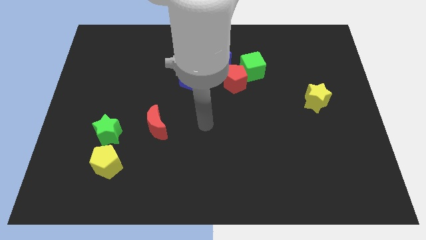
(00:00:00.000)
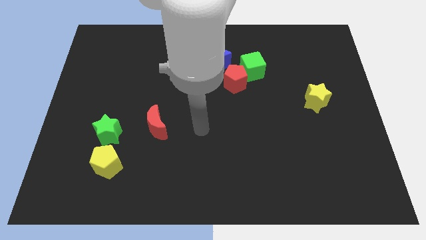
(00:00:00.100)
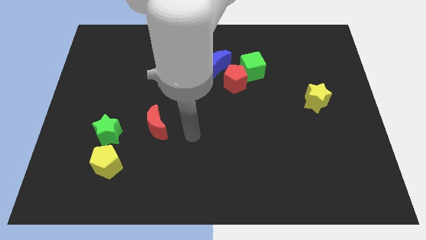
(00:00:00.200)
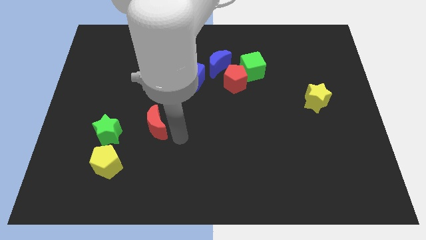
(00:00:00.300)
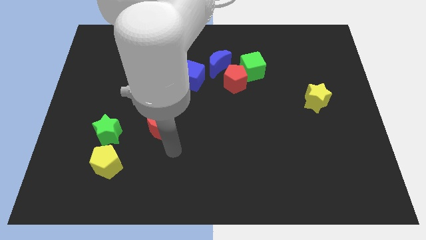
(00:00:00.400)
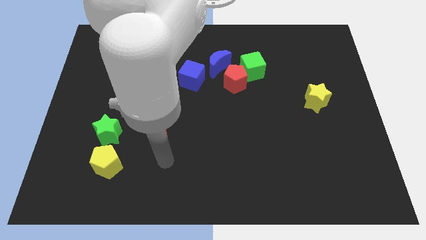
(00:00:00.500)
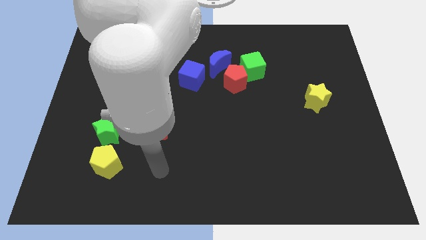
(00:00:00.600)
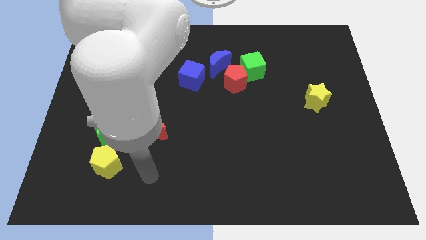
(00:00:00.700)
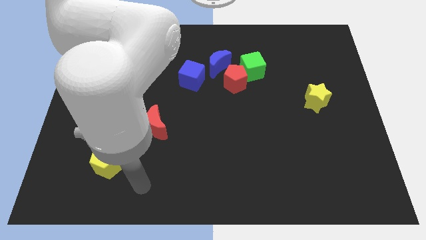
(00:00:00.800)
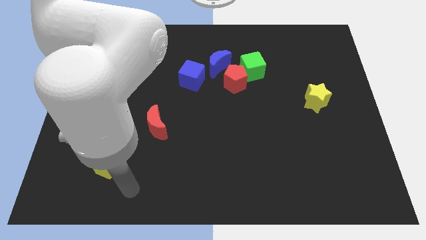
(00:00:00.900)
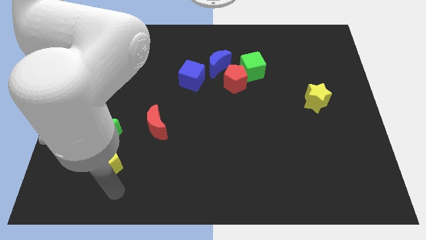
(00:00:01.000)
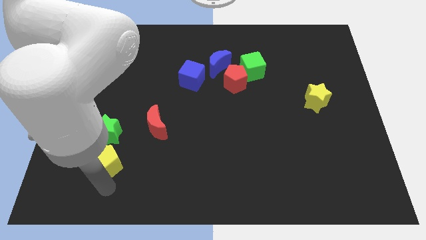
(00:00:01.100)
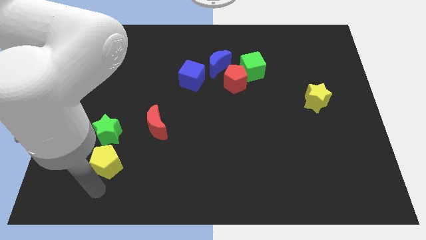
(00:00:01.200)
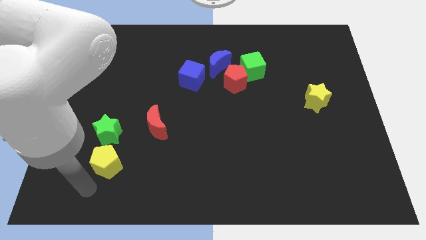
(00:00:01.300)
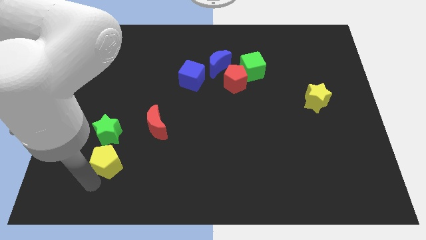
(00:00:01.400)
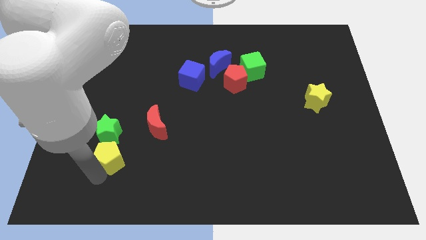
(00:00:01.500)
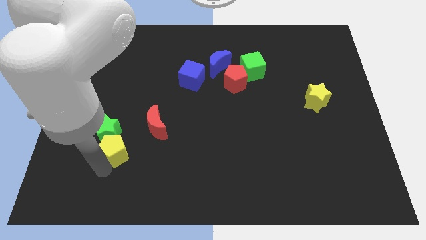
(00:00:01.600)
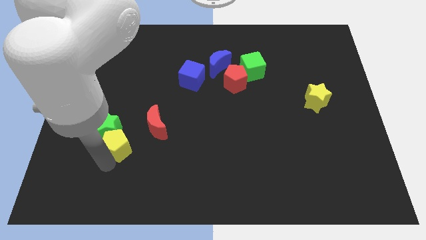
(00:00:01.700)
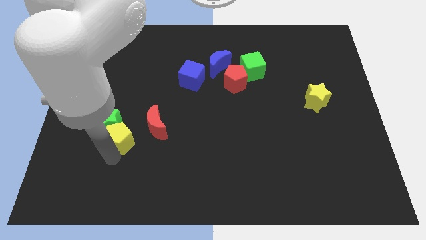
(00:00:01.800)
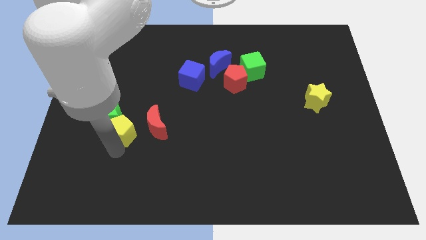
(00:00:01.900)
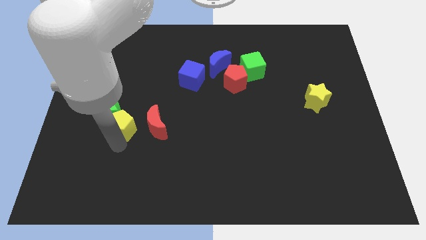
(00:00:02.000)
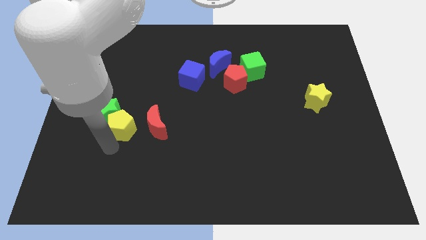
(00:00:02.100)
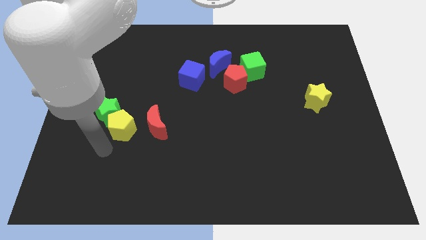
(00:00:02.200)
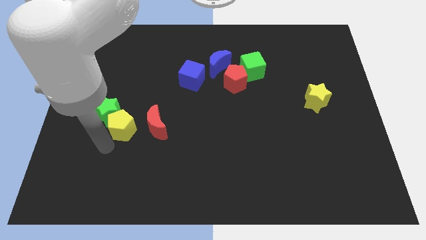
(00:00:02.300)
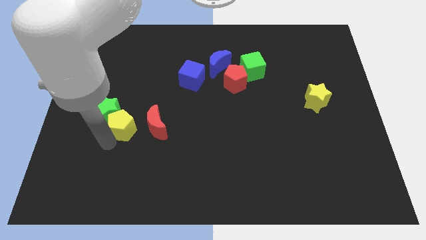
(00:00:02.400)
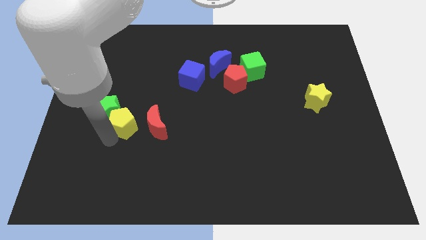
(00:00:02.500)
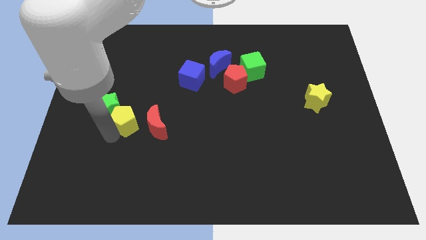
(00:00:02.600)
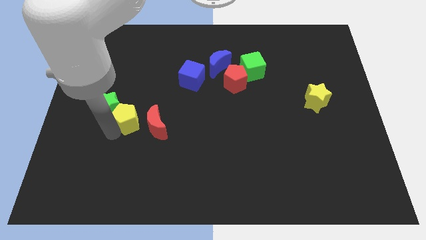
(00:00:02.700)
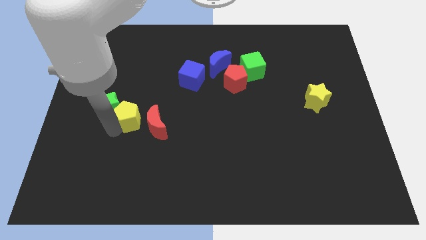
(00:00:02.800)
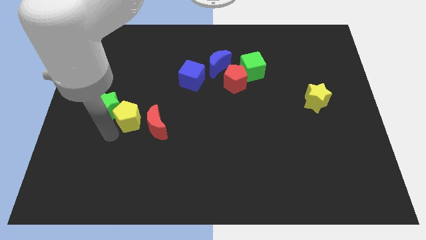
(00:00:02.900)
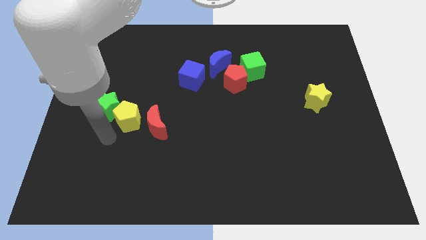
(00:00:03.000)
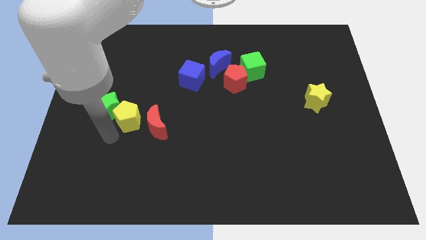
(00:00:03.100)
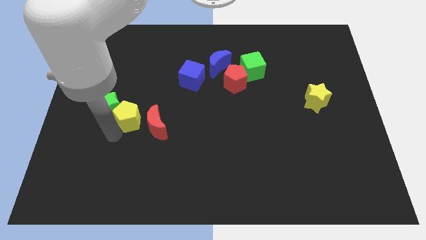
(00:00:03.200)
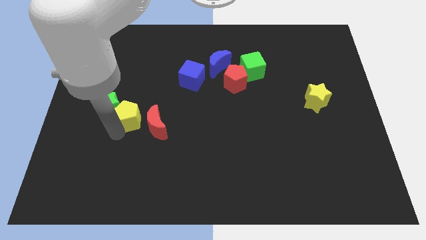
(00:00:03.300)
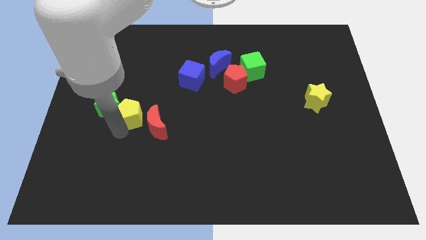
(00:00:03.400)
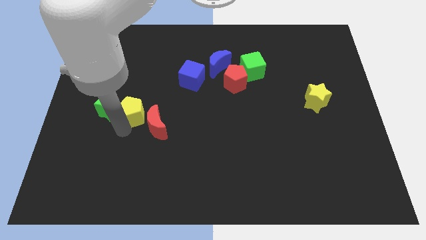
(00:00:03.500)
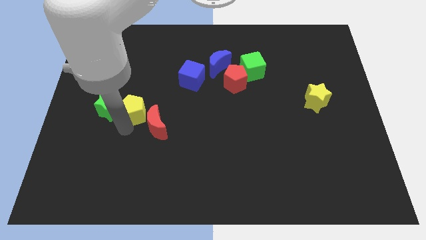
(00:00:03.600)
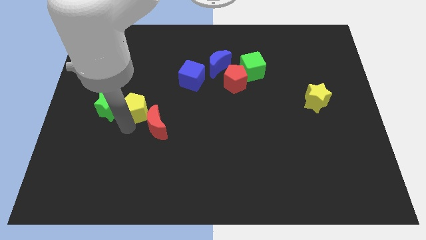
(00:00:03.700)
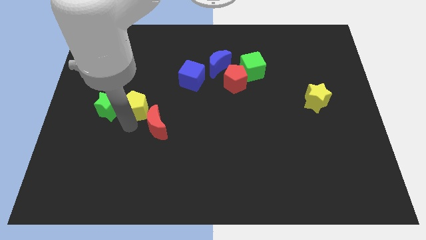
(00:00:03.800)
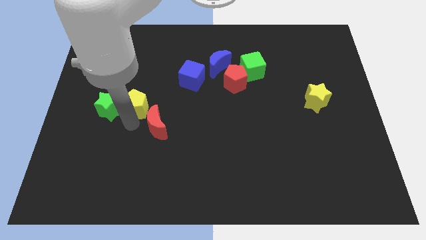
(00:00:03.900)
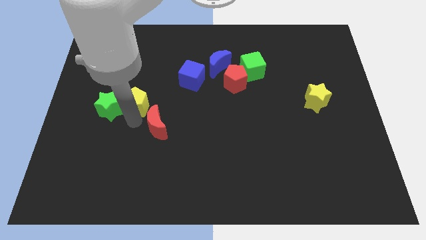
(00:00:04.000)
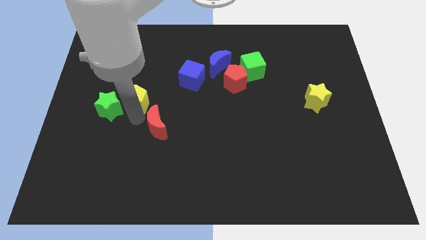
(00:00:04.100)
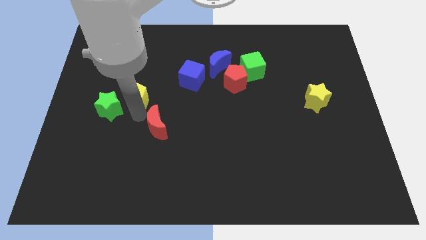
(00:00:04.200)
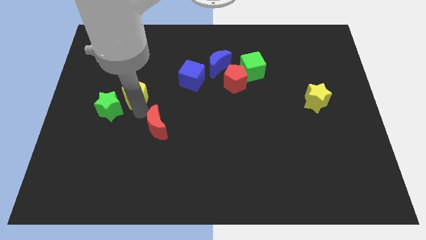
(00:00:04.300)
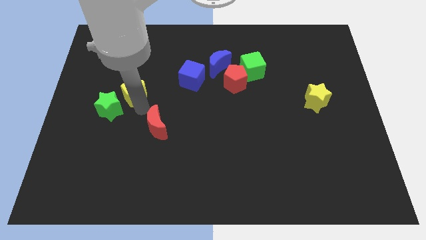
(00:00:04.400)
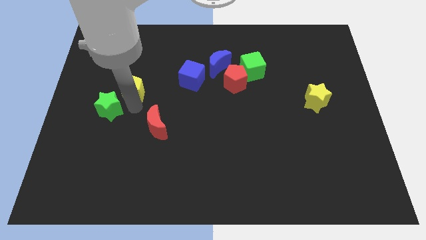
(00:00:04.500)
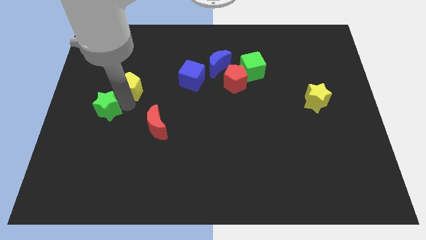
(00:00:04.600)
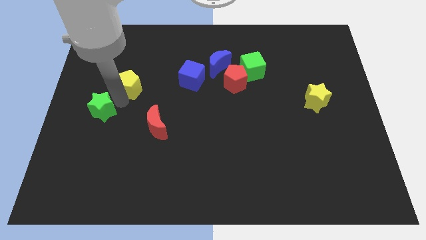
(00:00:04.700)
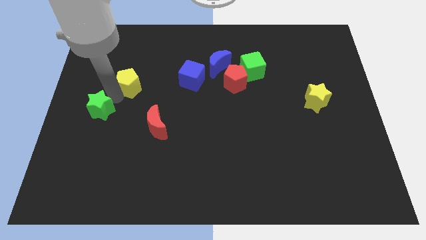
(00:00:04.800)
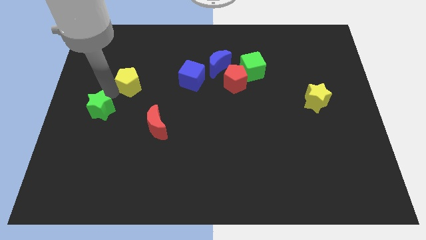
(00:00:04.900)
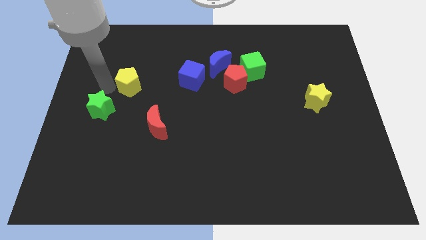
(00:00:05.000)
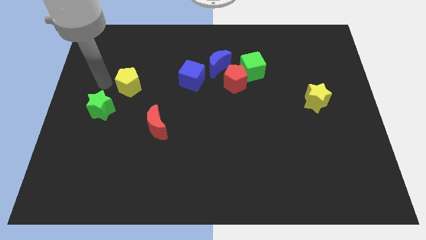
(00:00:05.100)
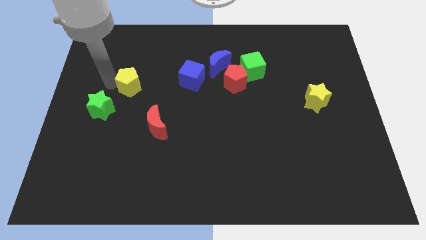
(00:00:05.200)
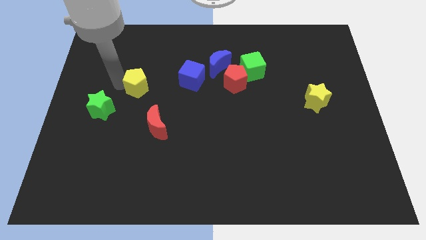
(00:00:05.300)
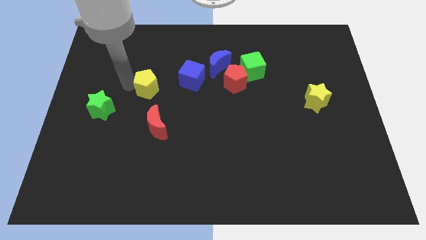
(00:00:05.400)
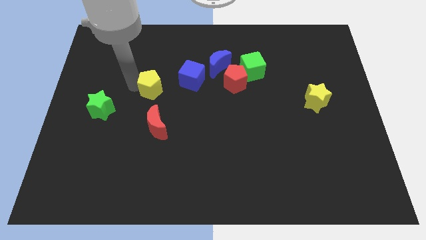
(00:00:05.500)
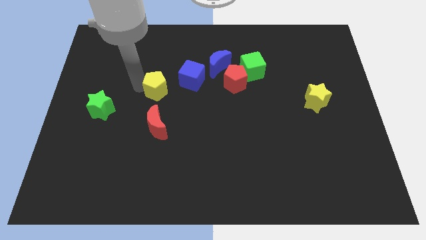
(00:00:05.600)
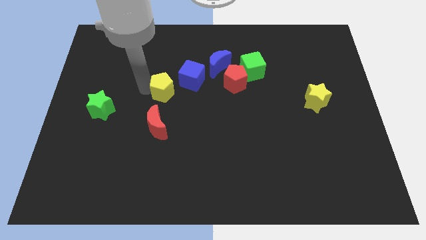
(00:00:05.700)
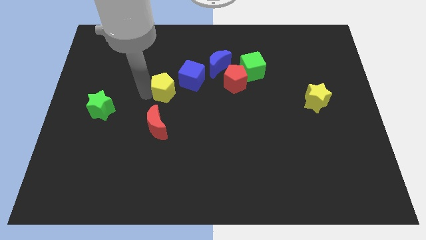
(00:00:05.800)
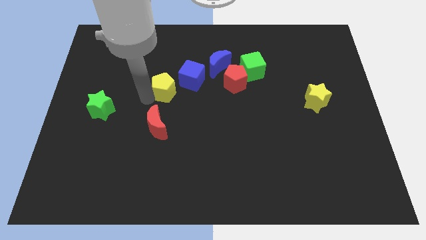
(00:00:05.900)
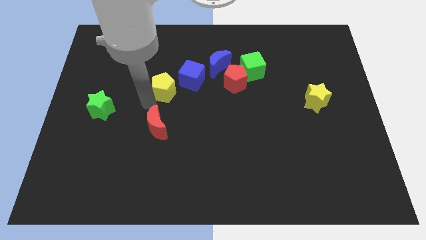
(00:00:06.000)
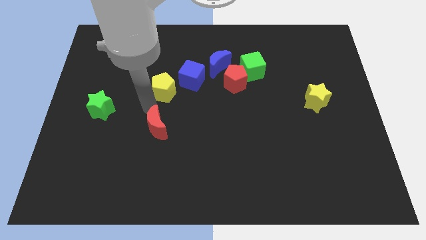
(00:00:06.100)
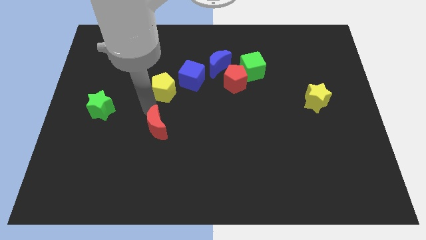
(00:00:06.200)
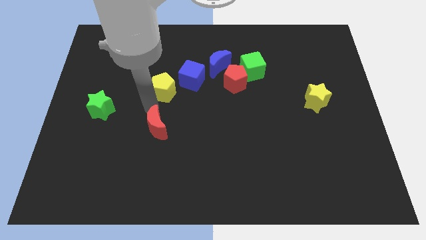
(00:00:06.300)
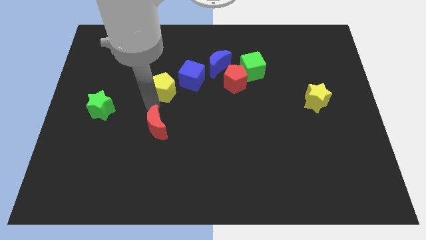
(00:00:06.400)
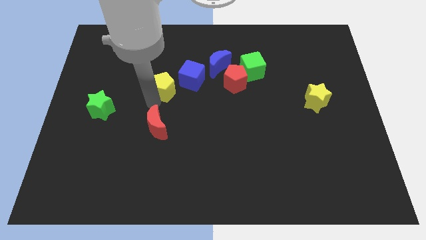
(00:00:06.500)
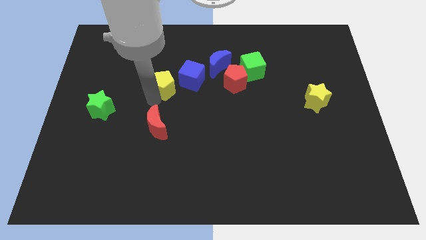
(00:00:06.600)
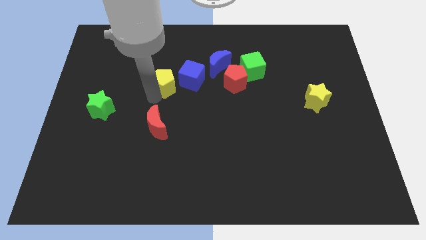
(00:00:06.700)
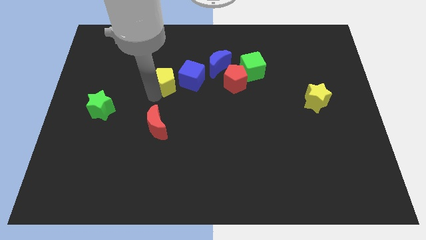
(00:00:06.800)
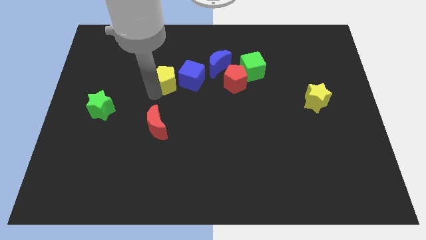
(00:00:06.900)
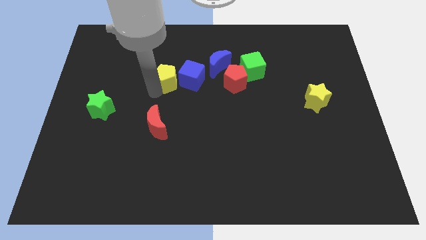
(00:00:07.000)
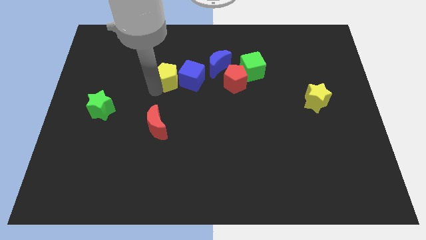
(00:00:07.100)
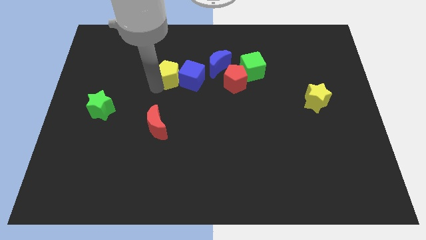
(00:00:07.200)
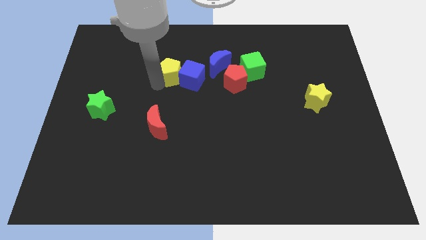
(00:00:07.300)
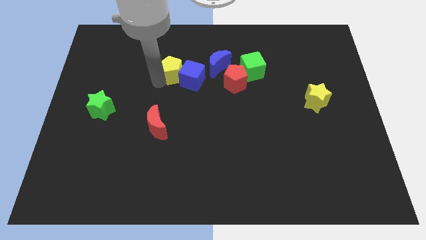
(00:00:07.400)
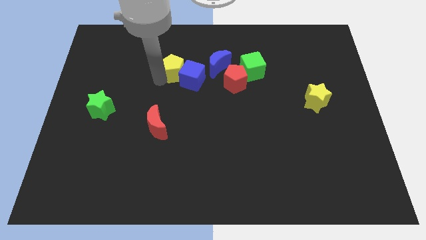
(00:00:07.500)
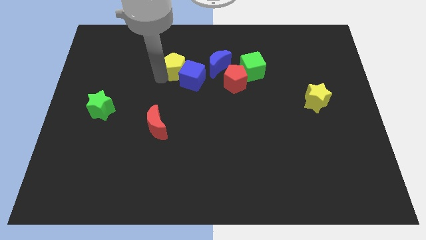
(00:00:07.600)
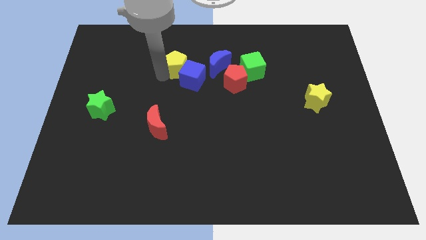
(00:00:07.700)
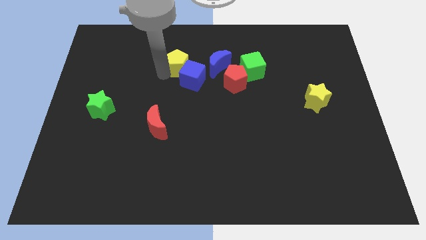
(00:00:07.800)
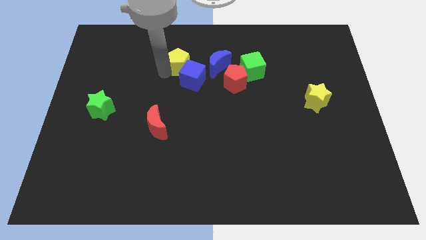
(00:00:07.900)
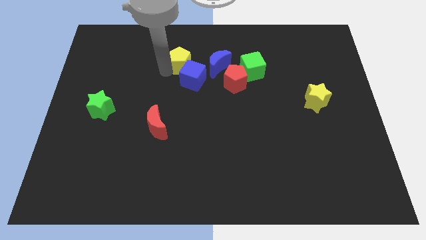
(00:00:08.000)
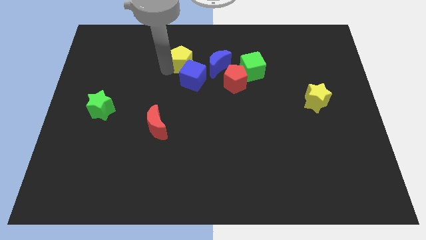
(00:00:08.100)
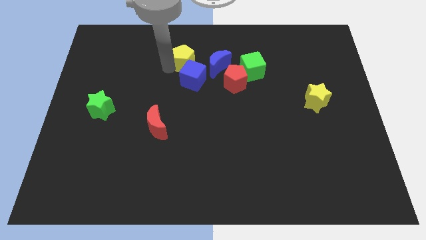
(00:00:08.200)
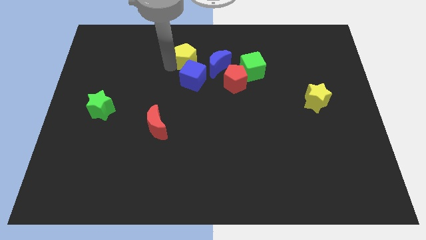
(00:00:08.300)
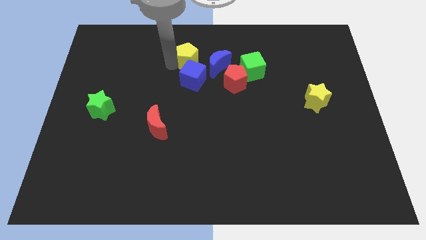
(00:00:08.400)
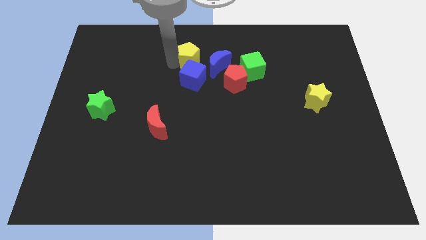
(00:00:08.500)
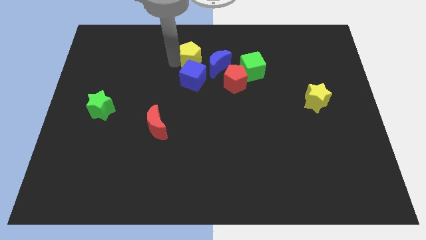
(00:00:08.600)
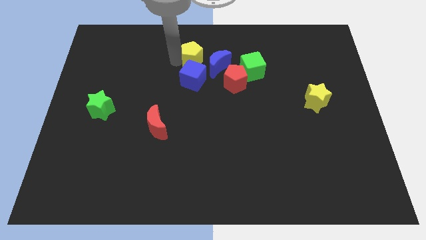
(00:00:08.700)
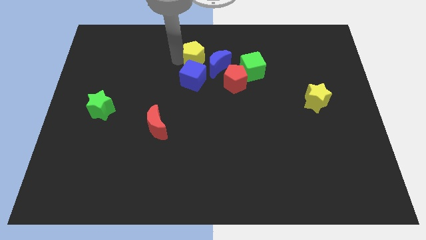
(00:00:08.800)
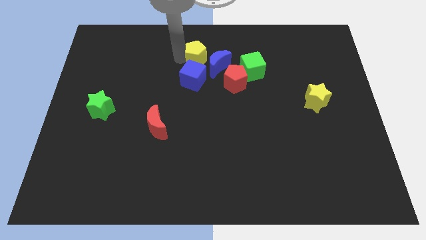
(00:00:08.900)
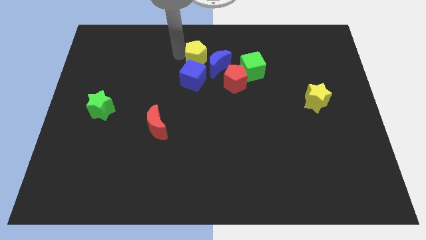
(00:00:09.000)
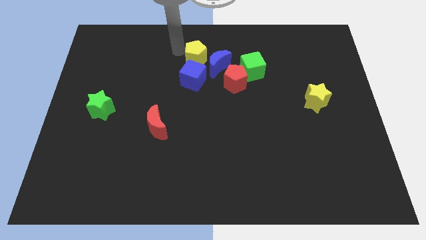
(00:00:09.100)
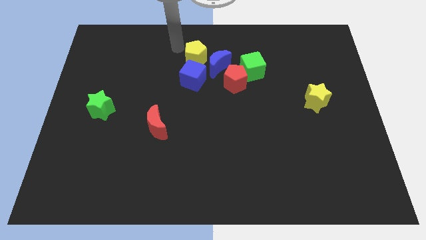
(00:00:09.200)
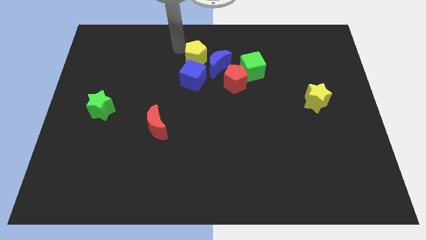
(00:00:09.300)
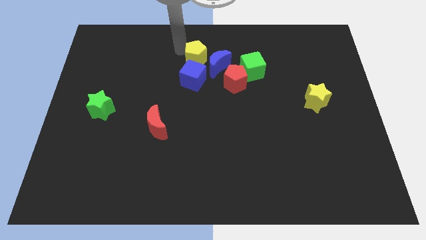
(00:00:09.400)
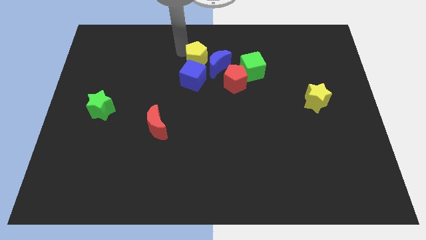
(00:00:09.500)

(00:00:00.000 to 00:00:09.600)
move the yellow pentagon diagonally up and to the left of the red pentagon
